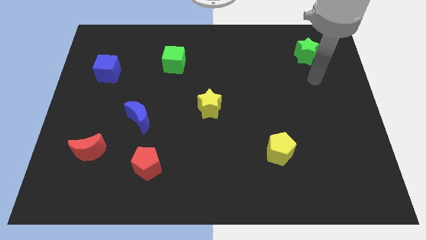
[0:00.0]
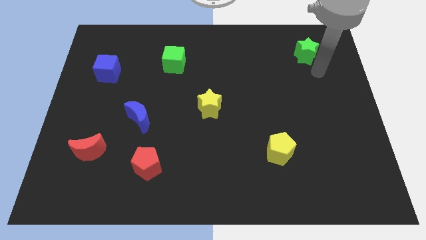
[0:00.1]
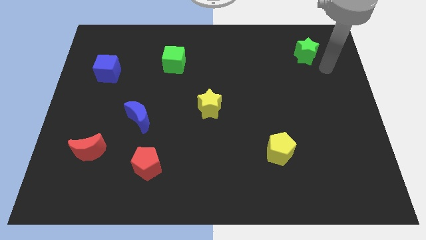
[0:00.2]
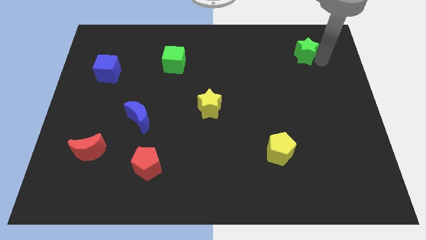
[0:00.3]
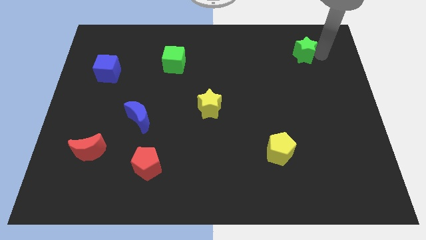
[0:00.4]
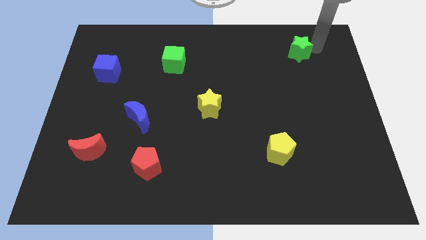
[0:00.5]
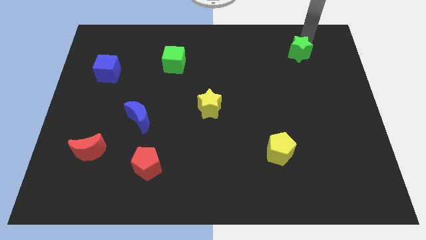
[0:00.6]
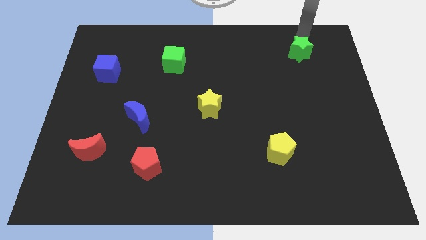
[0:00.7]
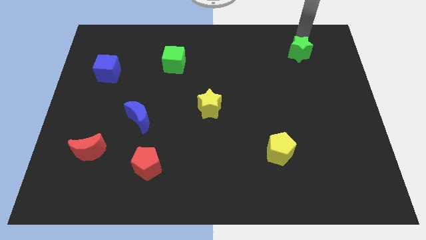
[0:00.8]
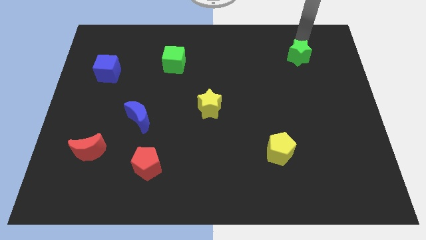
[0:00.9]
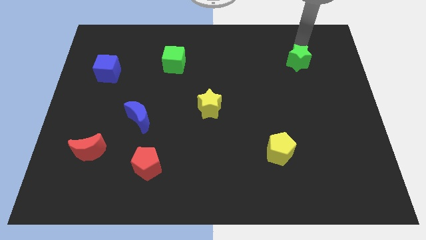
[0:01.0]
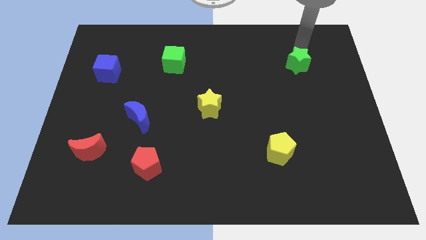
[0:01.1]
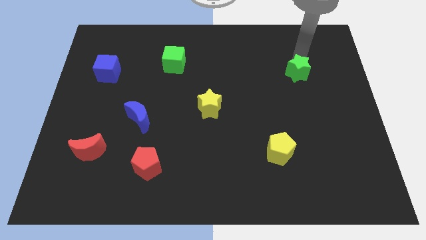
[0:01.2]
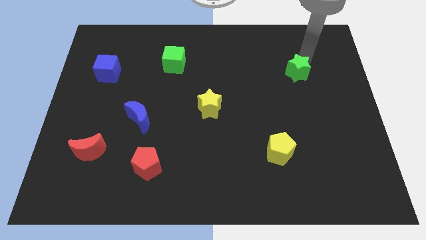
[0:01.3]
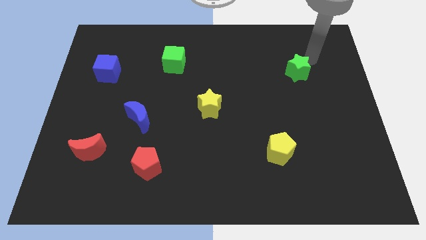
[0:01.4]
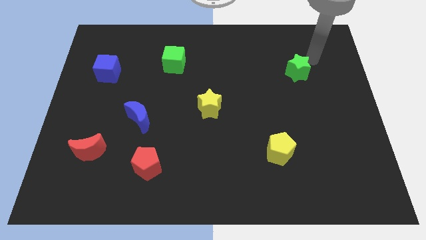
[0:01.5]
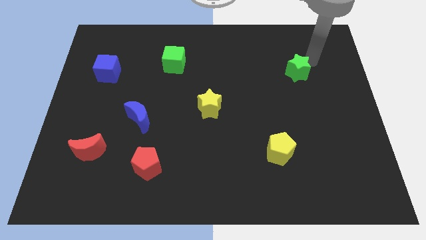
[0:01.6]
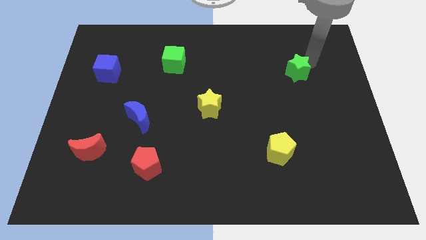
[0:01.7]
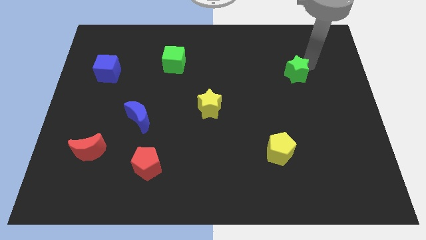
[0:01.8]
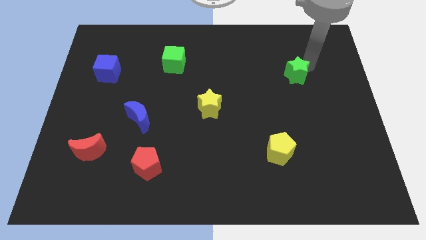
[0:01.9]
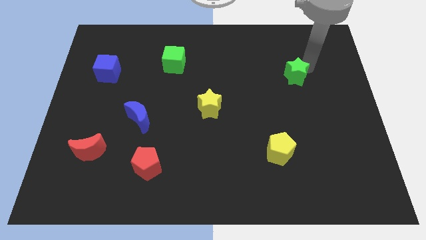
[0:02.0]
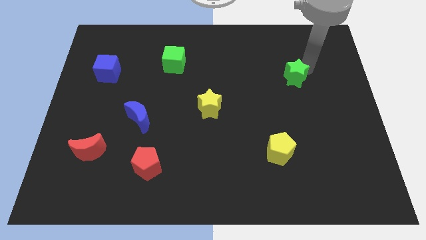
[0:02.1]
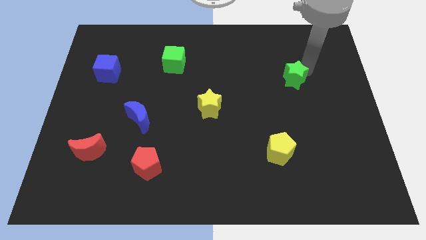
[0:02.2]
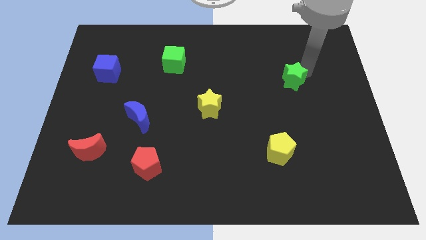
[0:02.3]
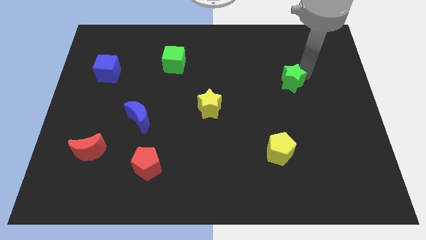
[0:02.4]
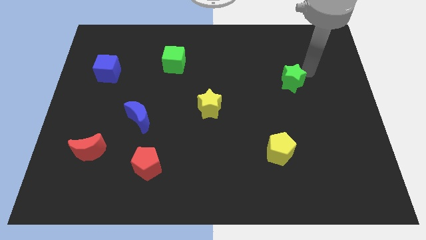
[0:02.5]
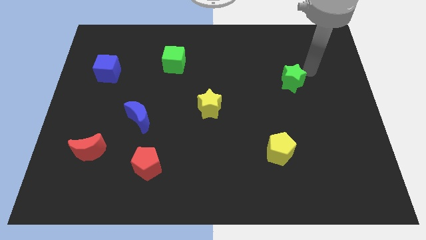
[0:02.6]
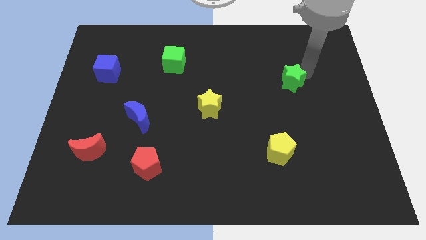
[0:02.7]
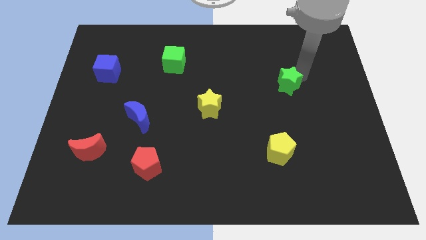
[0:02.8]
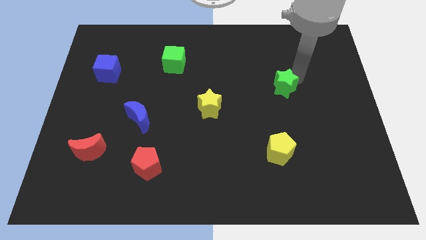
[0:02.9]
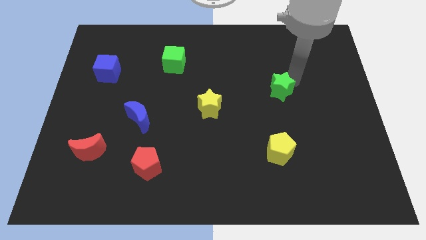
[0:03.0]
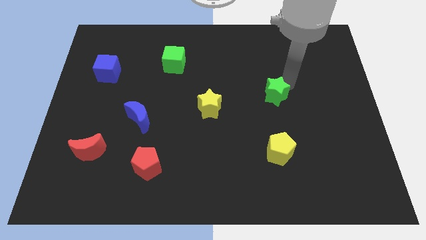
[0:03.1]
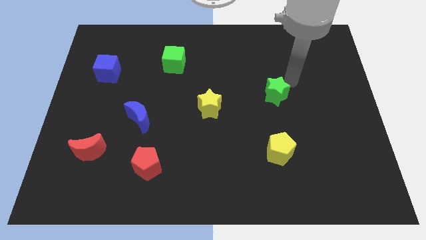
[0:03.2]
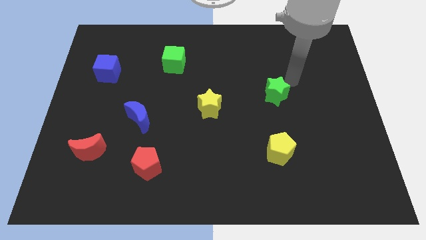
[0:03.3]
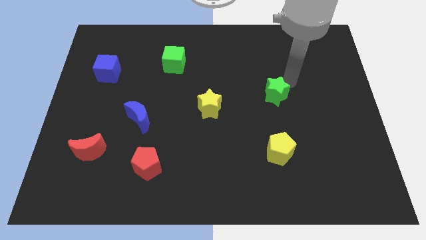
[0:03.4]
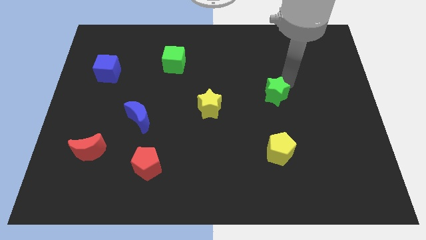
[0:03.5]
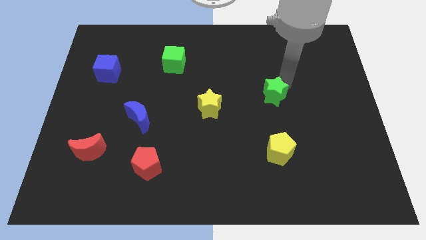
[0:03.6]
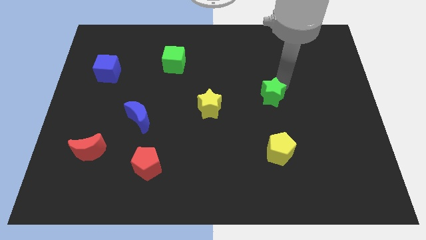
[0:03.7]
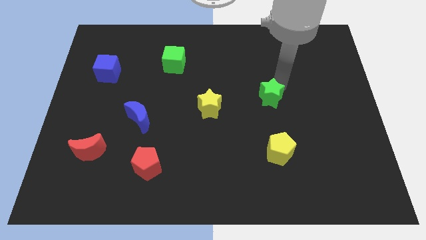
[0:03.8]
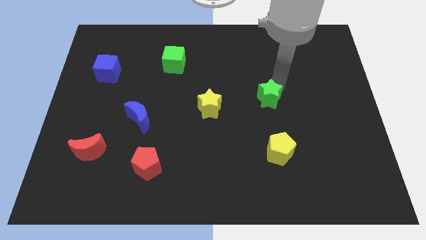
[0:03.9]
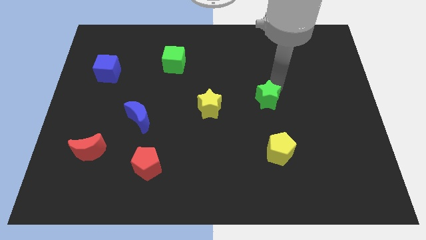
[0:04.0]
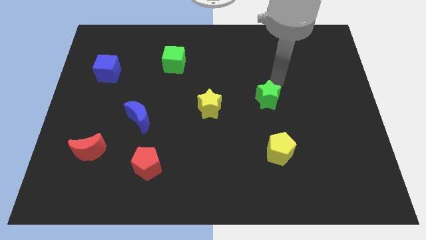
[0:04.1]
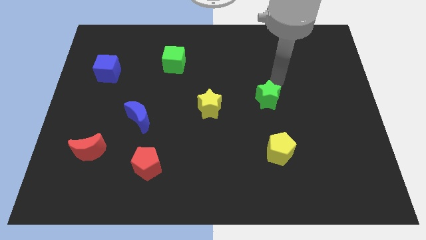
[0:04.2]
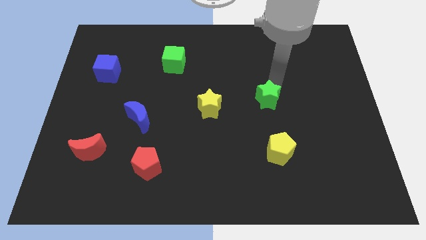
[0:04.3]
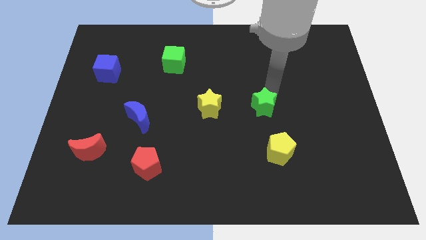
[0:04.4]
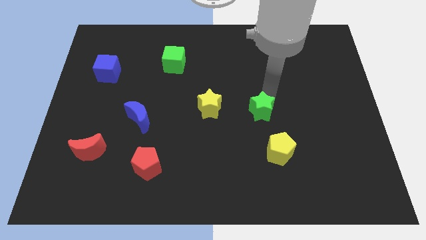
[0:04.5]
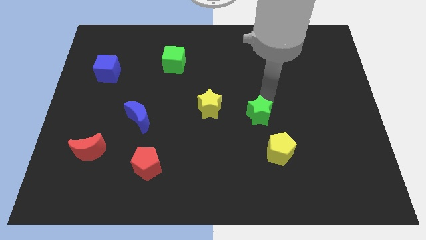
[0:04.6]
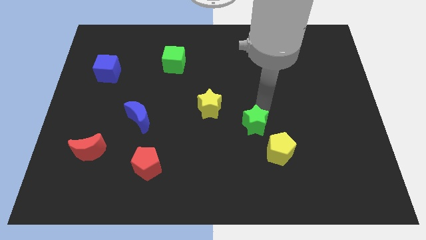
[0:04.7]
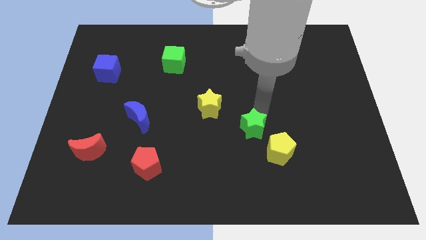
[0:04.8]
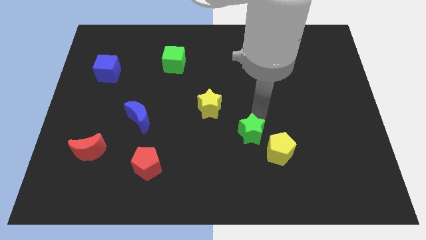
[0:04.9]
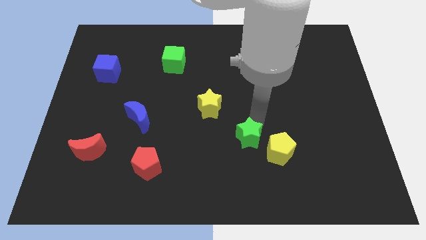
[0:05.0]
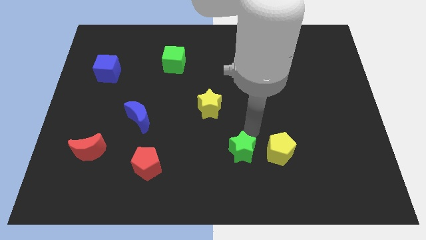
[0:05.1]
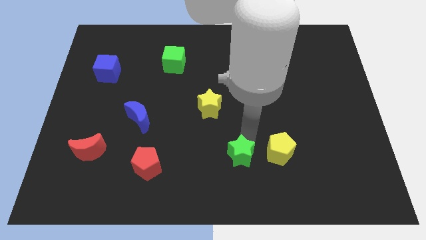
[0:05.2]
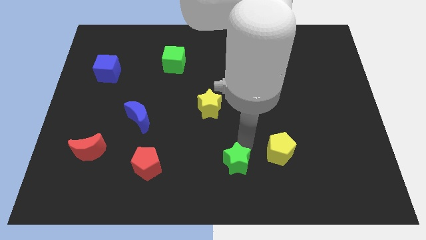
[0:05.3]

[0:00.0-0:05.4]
move the green star to the bottom side
